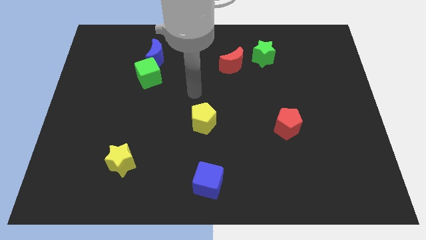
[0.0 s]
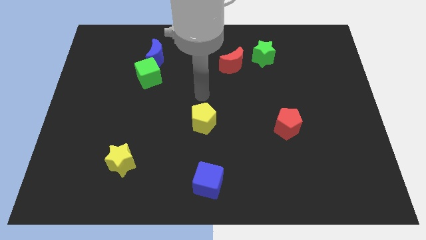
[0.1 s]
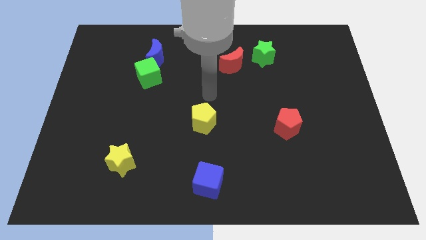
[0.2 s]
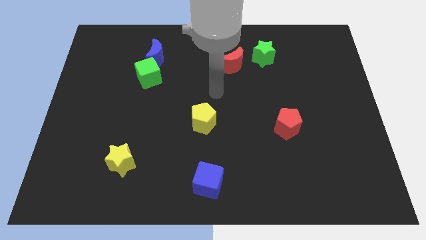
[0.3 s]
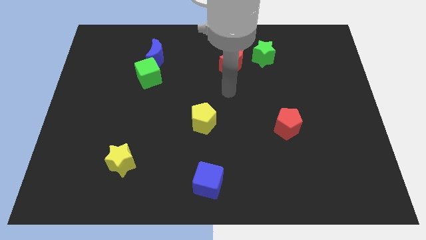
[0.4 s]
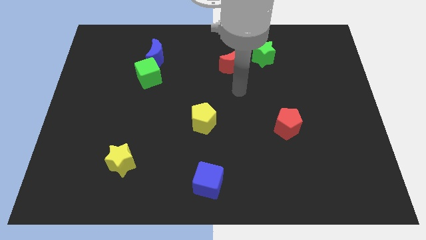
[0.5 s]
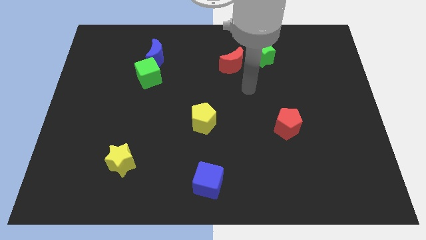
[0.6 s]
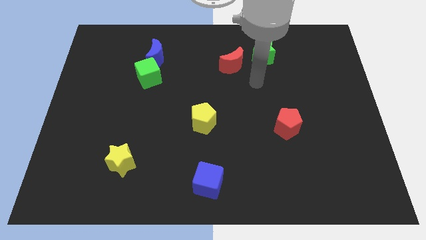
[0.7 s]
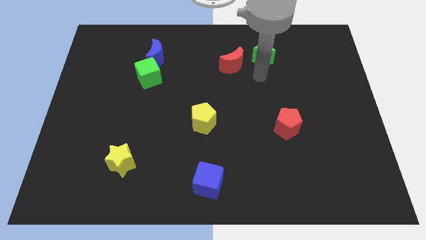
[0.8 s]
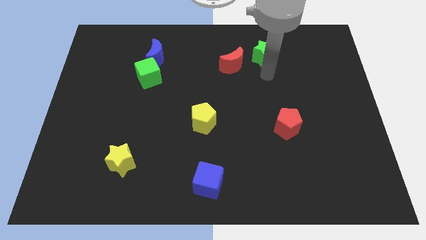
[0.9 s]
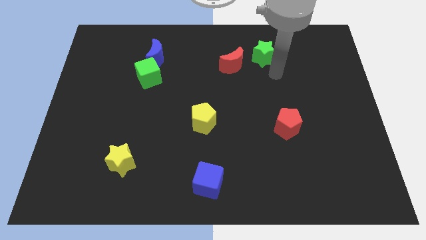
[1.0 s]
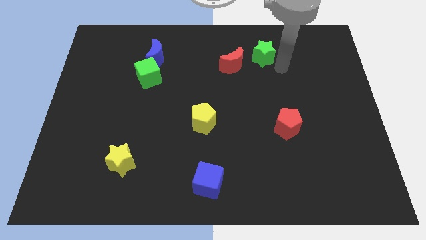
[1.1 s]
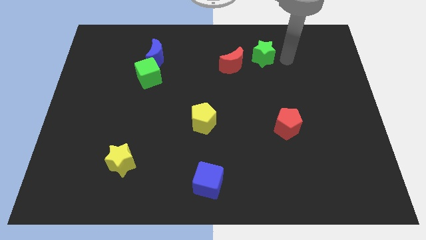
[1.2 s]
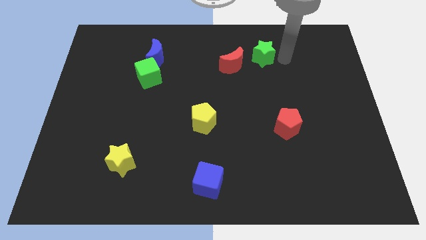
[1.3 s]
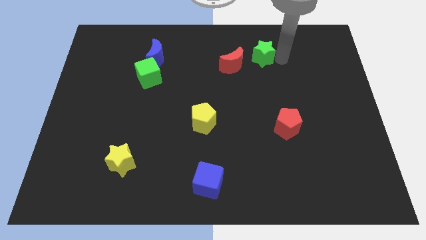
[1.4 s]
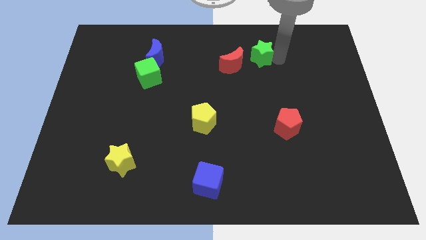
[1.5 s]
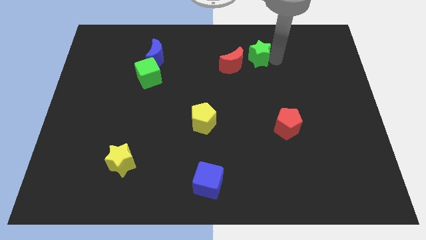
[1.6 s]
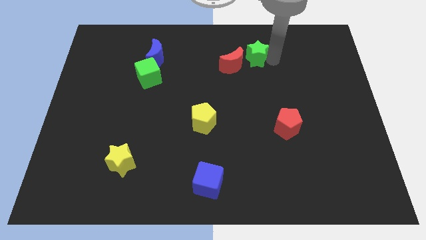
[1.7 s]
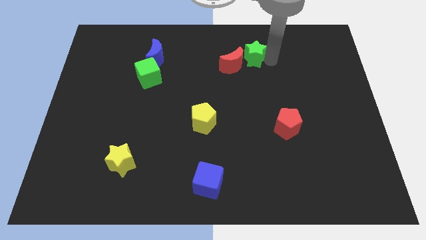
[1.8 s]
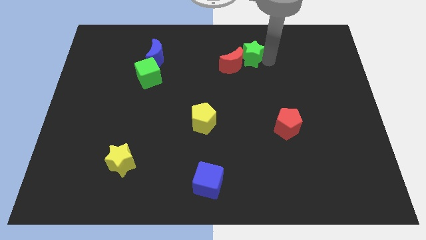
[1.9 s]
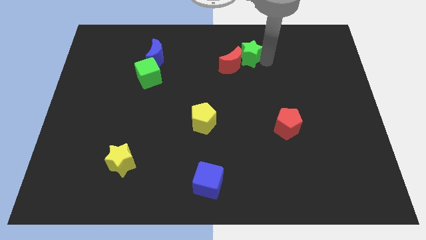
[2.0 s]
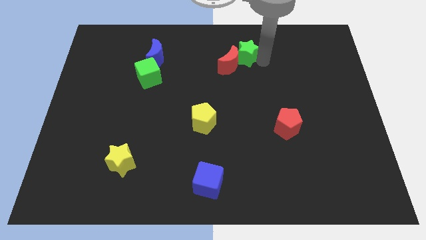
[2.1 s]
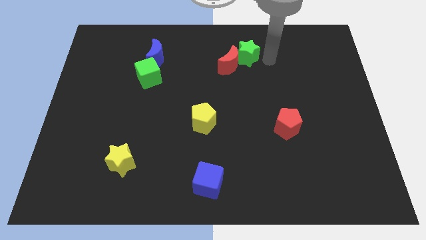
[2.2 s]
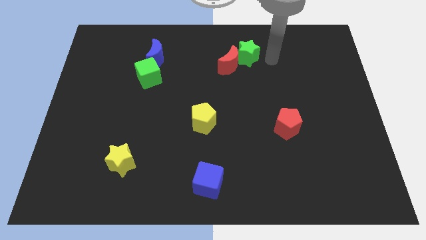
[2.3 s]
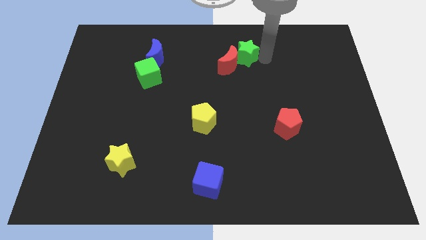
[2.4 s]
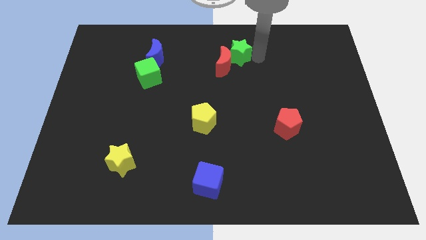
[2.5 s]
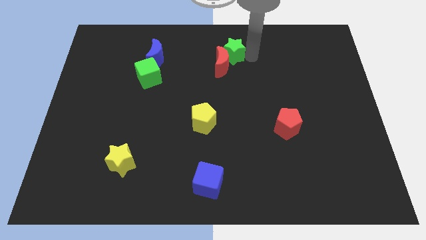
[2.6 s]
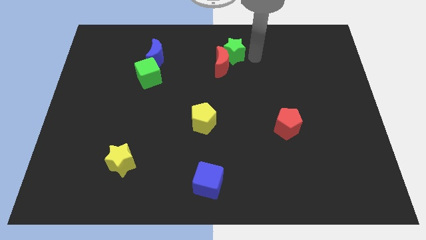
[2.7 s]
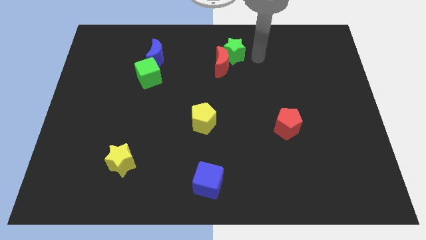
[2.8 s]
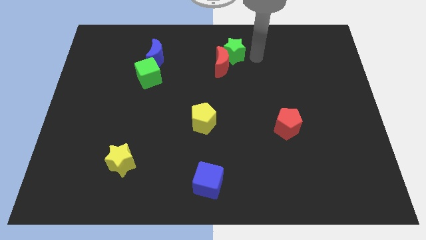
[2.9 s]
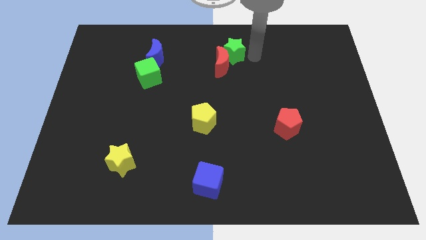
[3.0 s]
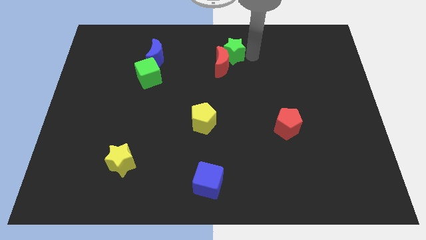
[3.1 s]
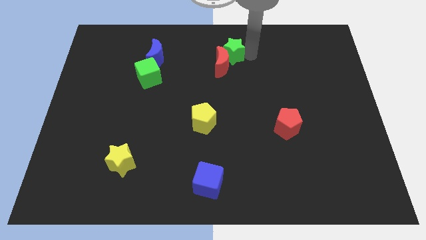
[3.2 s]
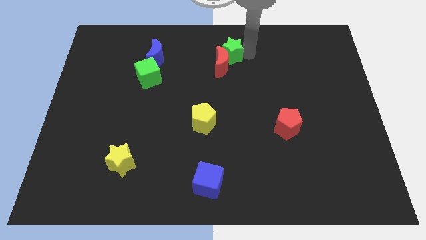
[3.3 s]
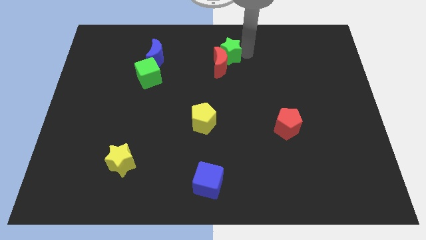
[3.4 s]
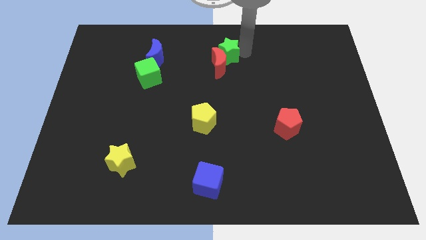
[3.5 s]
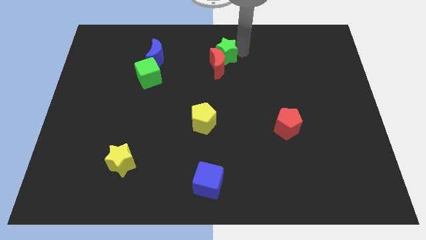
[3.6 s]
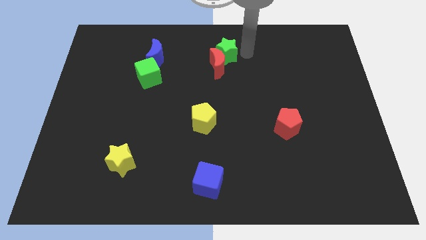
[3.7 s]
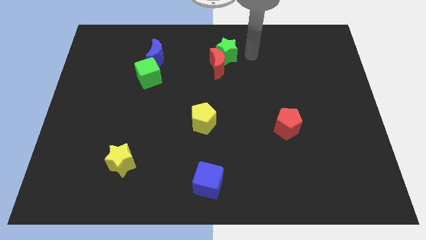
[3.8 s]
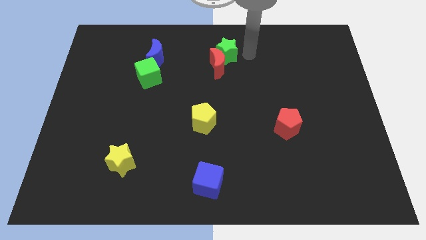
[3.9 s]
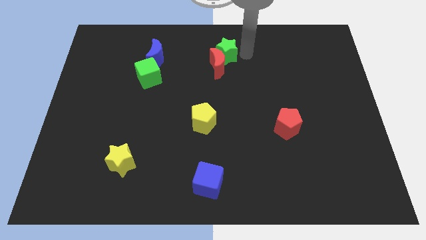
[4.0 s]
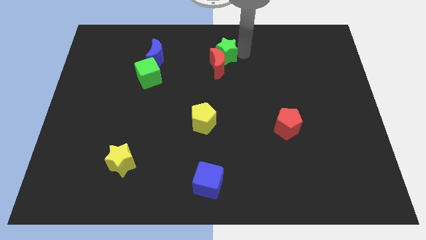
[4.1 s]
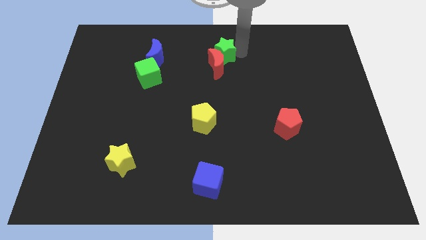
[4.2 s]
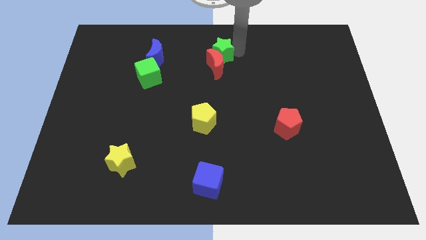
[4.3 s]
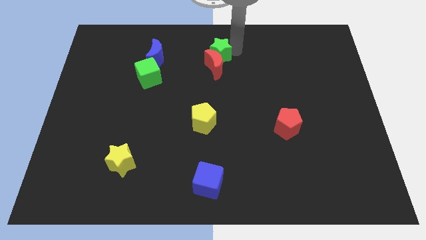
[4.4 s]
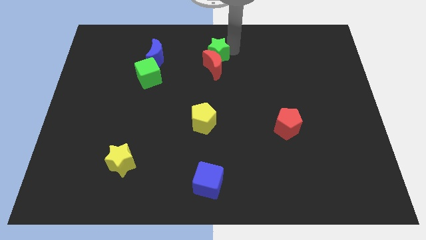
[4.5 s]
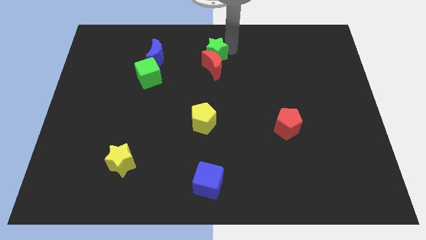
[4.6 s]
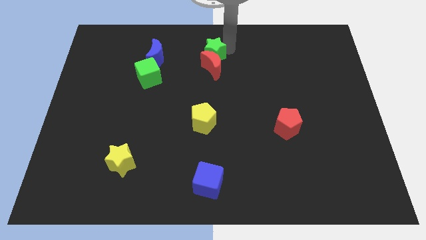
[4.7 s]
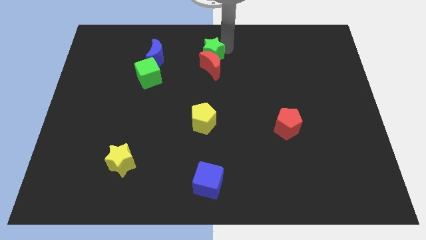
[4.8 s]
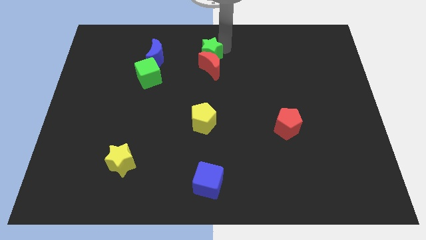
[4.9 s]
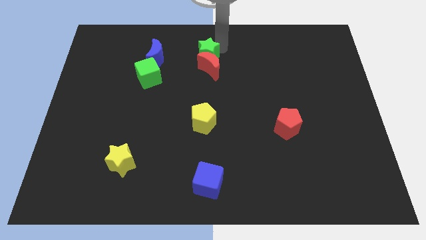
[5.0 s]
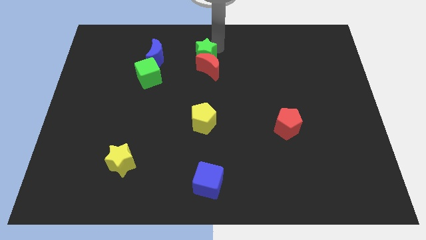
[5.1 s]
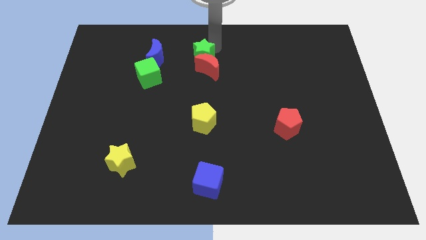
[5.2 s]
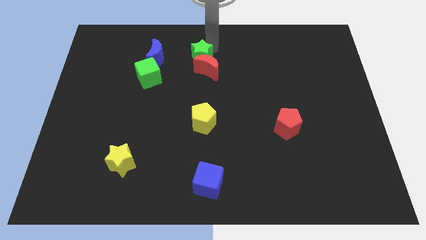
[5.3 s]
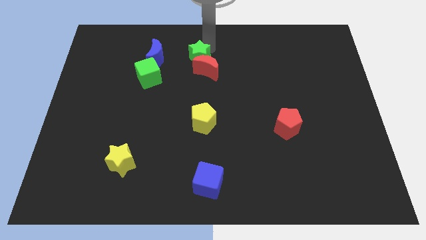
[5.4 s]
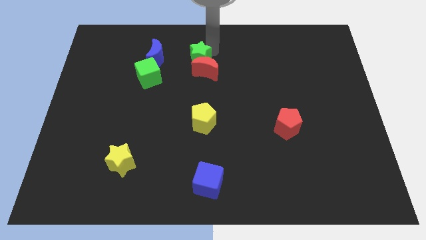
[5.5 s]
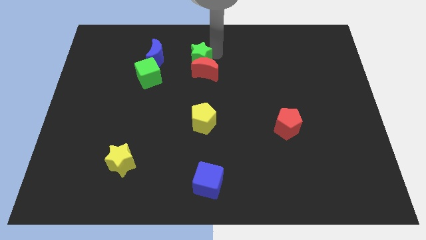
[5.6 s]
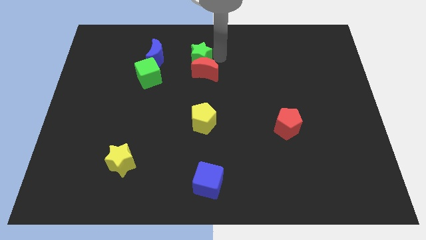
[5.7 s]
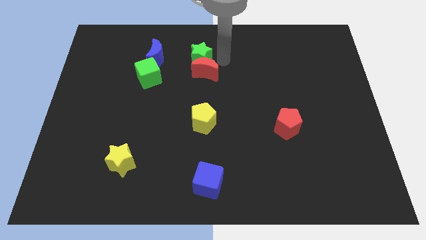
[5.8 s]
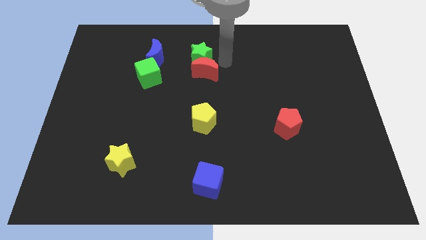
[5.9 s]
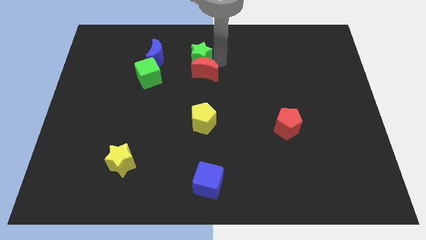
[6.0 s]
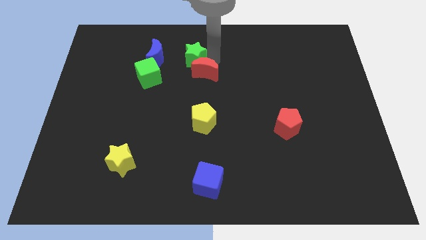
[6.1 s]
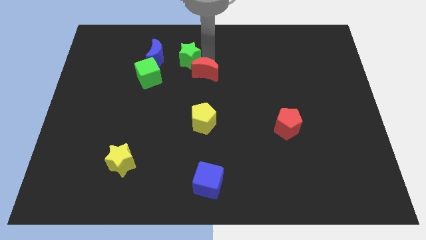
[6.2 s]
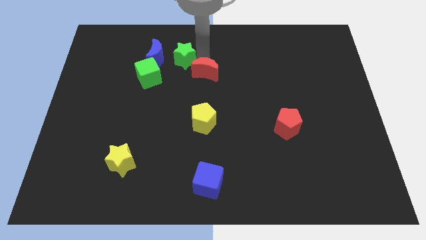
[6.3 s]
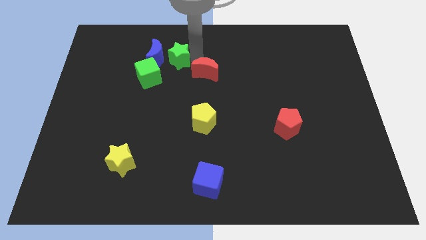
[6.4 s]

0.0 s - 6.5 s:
put the green star next to the blue moon

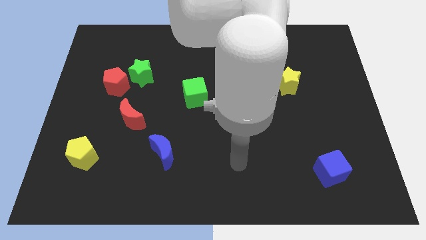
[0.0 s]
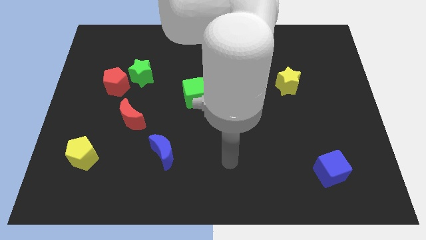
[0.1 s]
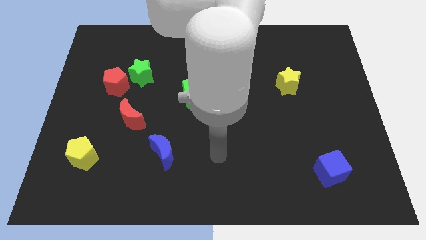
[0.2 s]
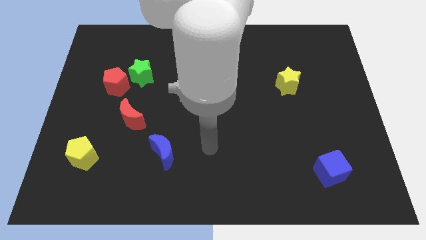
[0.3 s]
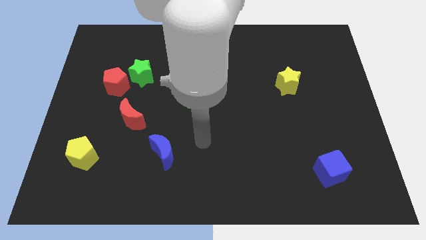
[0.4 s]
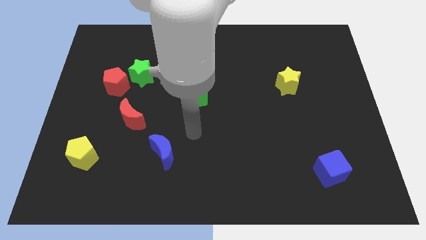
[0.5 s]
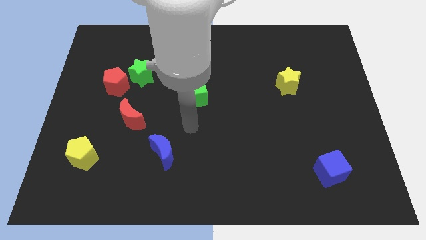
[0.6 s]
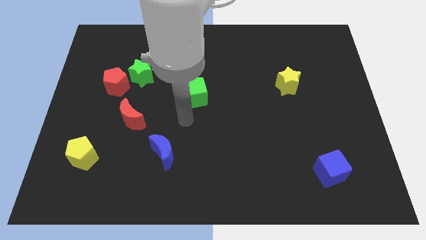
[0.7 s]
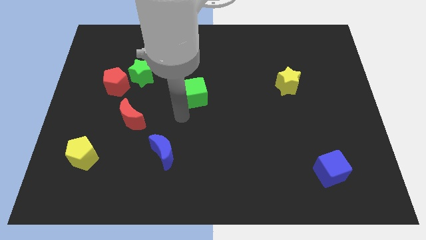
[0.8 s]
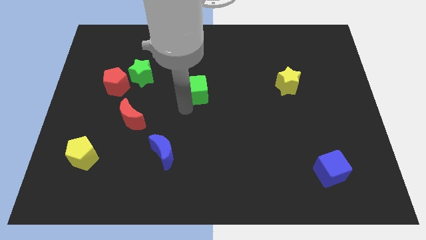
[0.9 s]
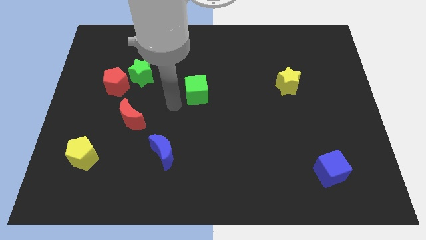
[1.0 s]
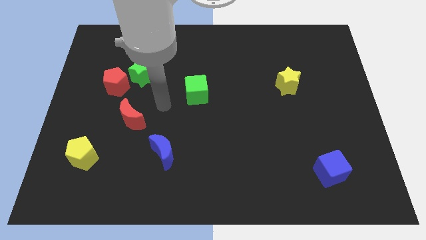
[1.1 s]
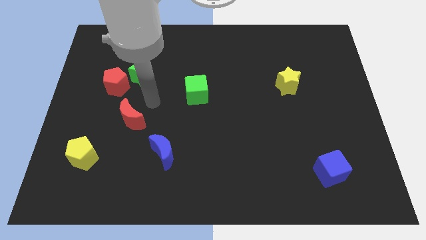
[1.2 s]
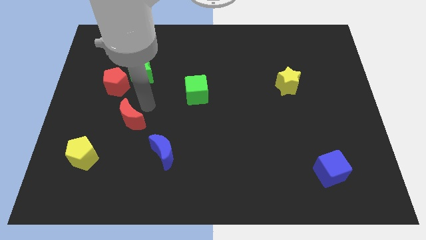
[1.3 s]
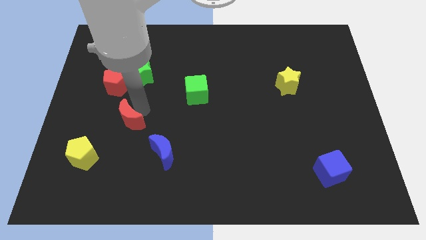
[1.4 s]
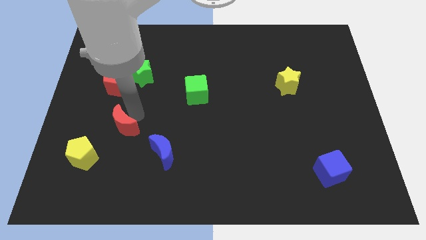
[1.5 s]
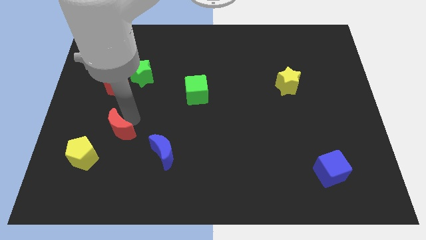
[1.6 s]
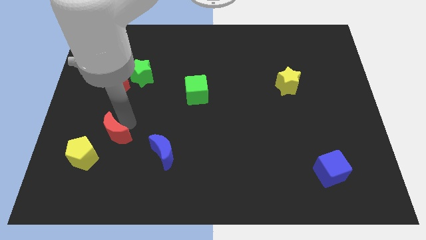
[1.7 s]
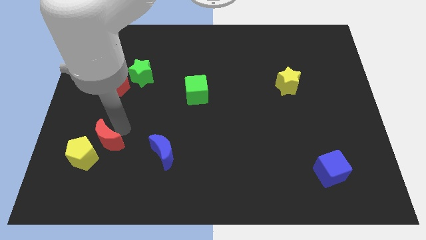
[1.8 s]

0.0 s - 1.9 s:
move the red moon to the yellow pentagon
